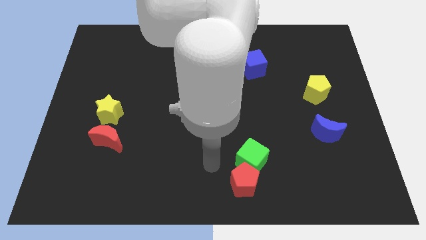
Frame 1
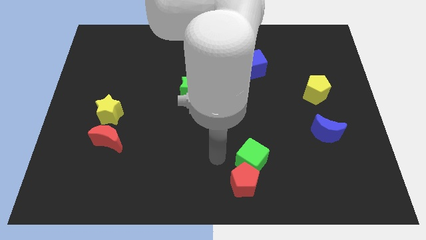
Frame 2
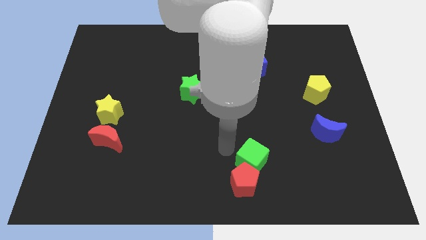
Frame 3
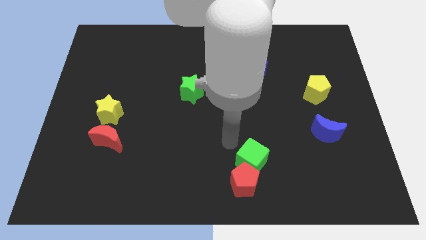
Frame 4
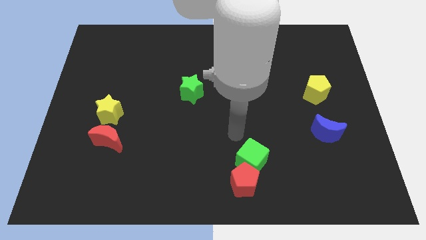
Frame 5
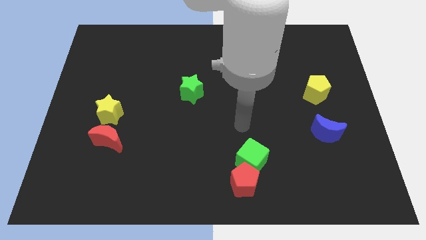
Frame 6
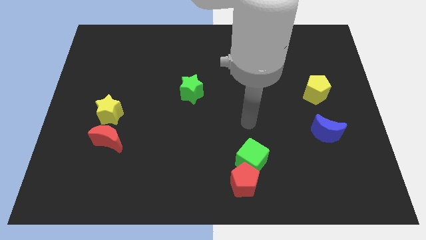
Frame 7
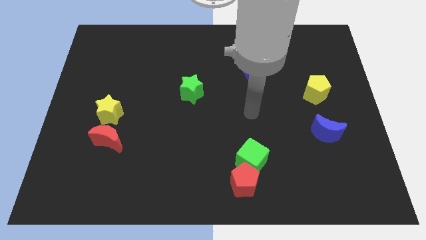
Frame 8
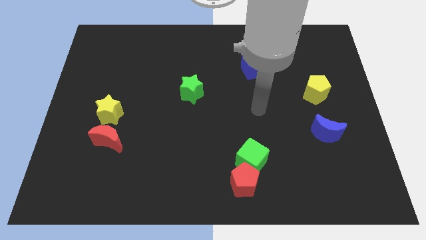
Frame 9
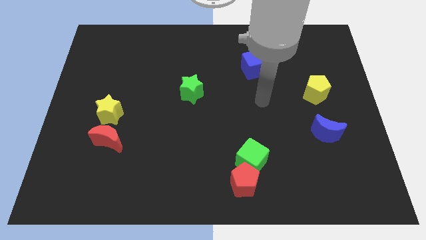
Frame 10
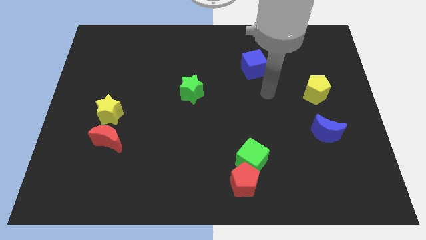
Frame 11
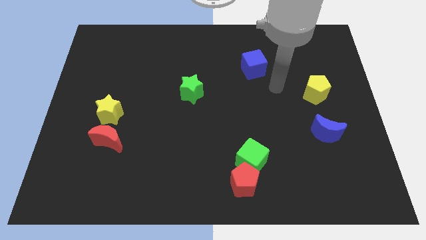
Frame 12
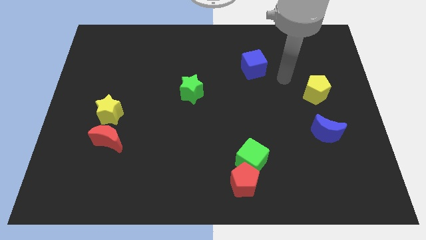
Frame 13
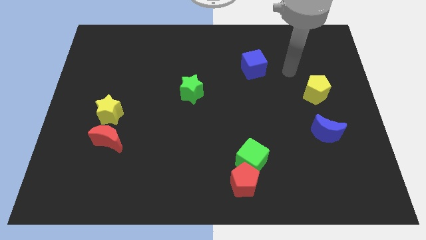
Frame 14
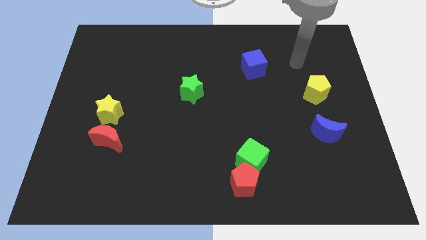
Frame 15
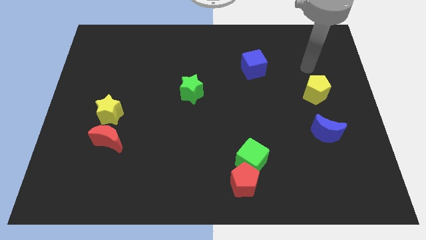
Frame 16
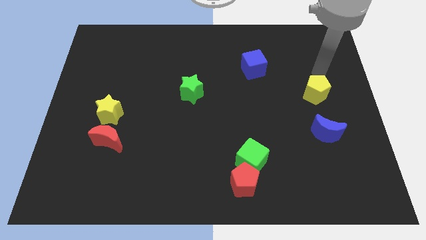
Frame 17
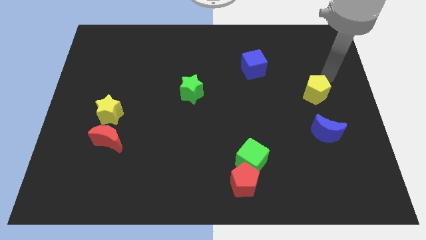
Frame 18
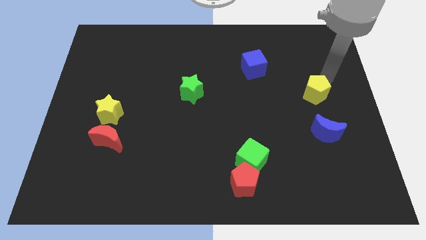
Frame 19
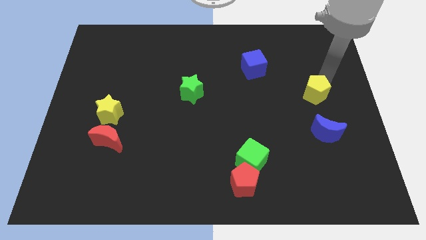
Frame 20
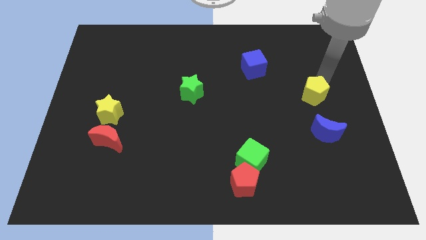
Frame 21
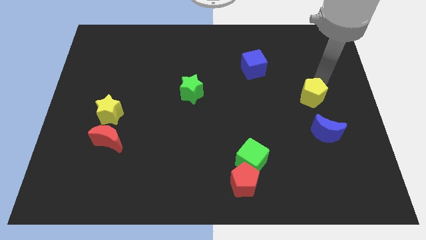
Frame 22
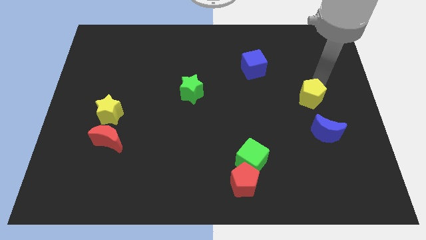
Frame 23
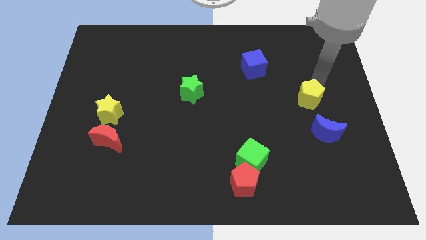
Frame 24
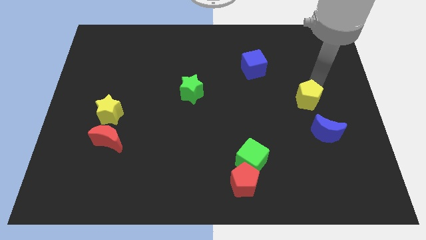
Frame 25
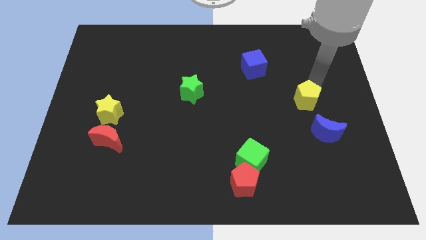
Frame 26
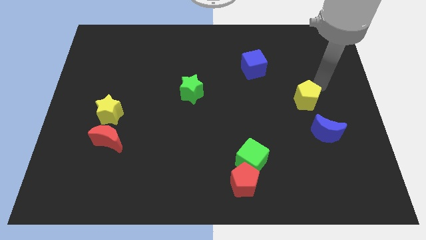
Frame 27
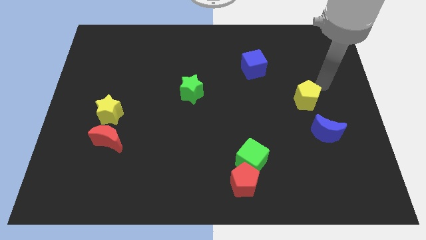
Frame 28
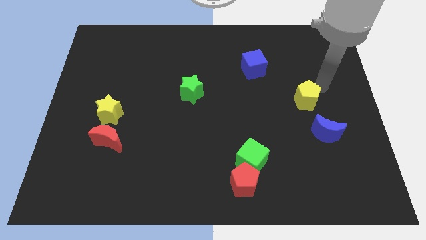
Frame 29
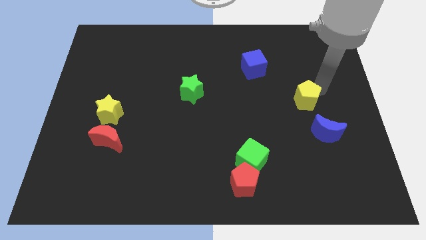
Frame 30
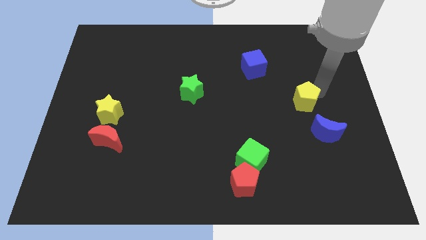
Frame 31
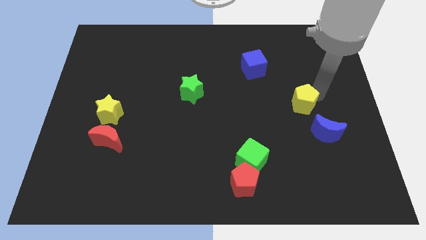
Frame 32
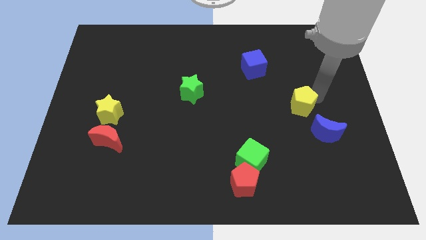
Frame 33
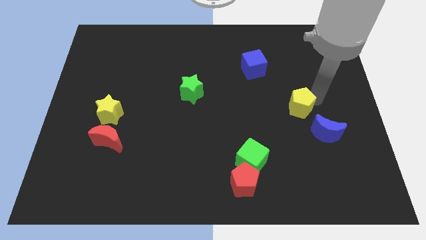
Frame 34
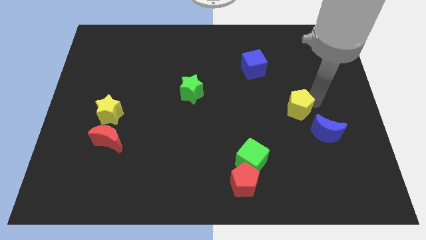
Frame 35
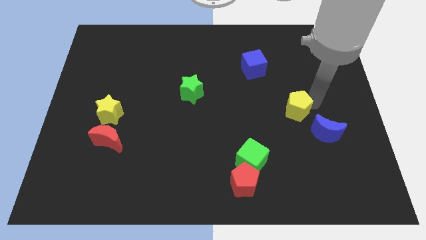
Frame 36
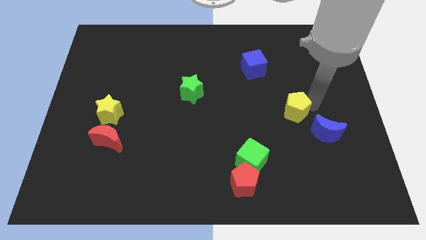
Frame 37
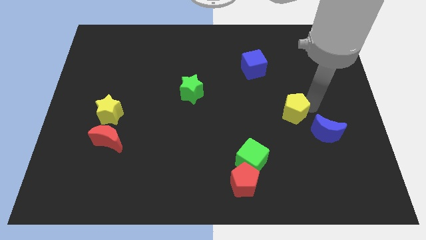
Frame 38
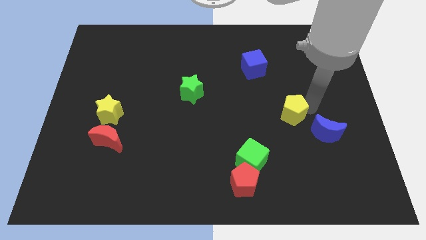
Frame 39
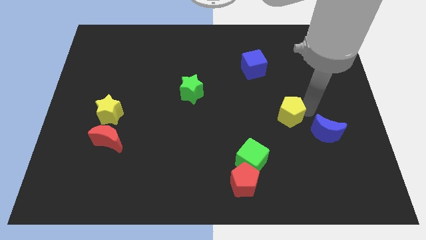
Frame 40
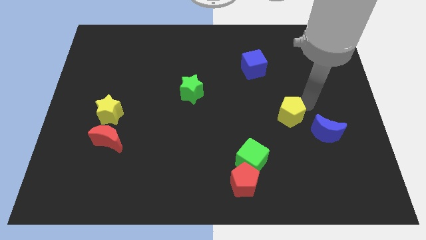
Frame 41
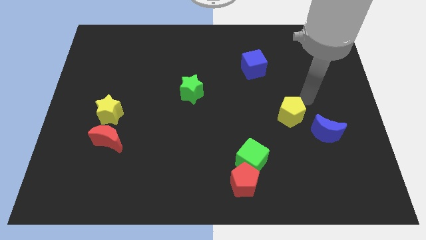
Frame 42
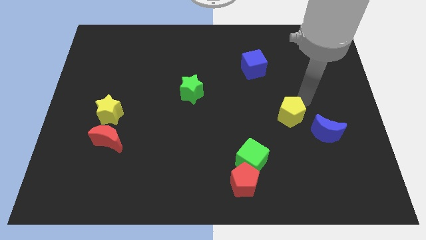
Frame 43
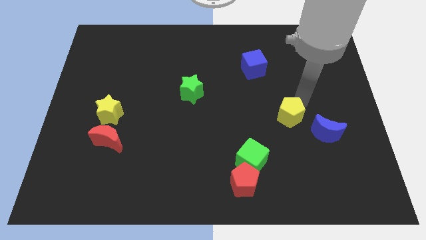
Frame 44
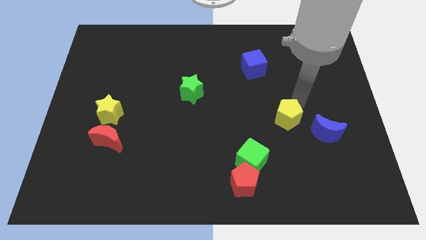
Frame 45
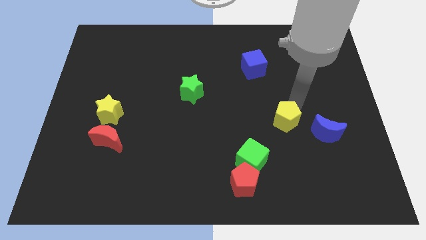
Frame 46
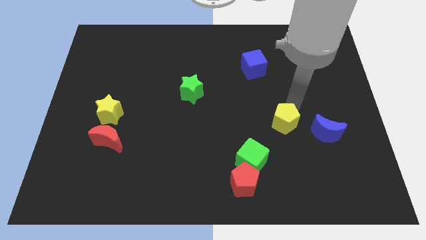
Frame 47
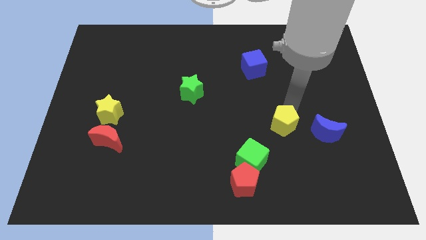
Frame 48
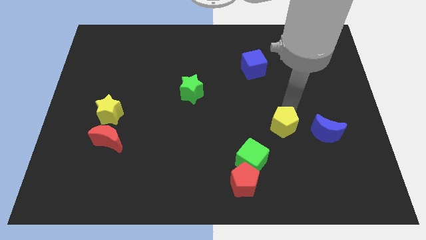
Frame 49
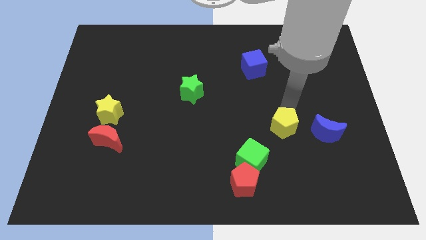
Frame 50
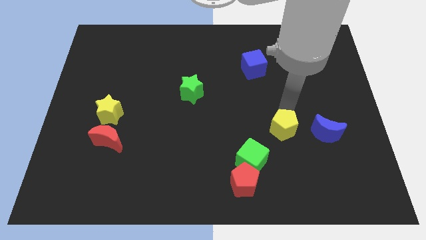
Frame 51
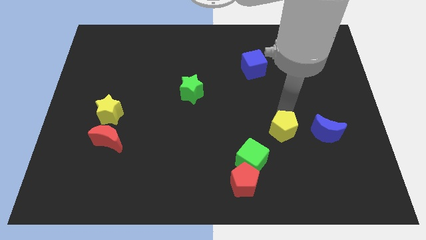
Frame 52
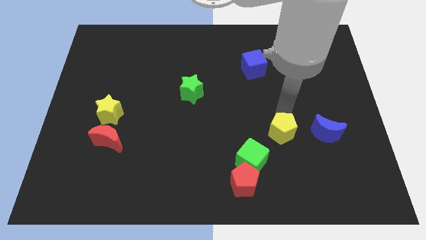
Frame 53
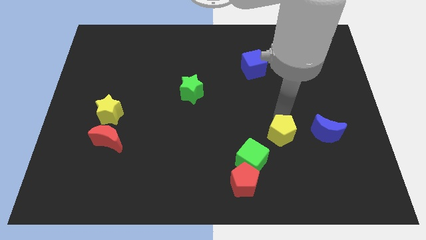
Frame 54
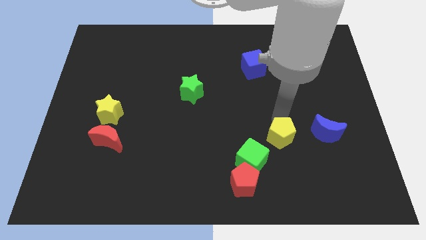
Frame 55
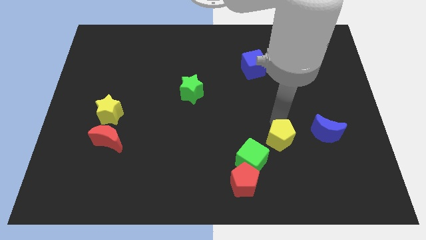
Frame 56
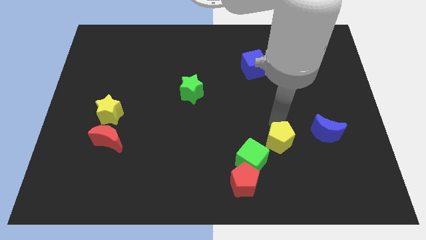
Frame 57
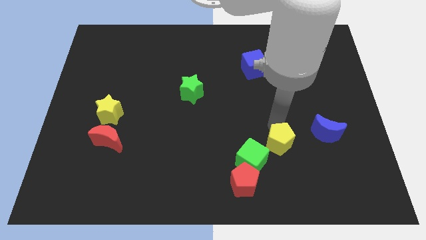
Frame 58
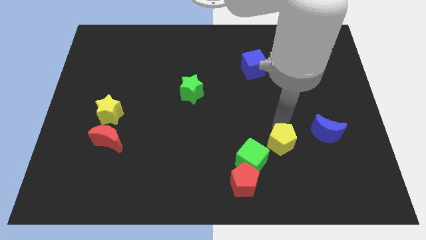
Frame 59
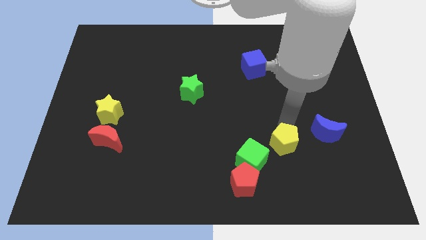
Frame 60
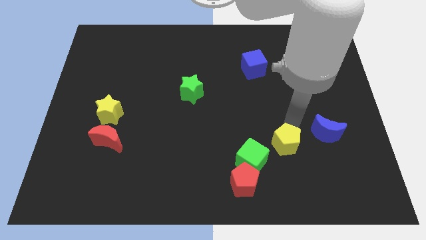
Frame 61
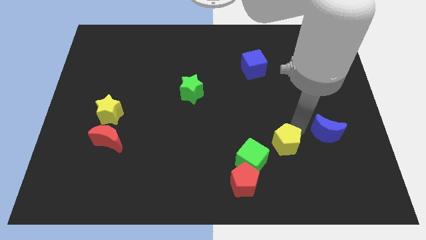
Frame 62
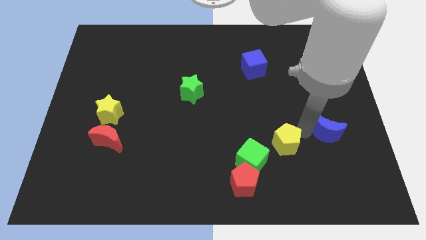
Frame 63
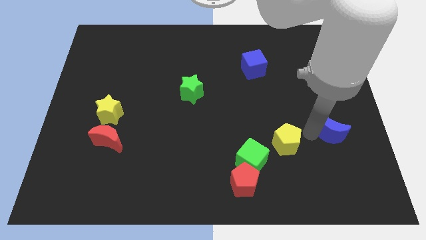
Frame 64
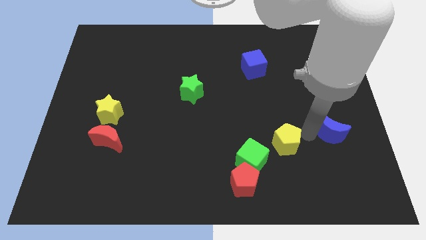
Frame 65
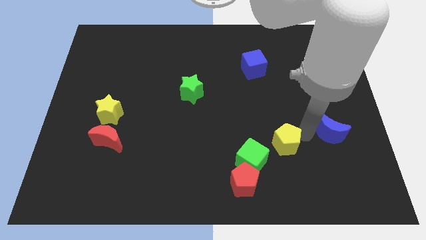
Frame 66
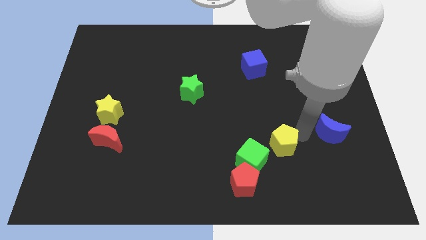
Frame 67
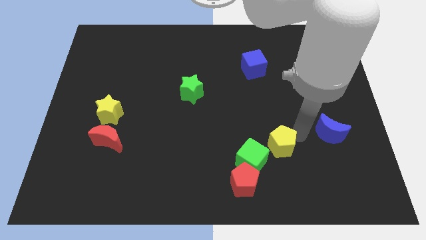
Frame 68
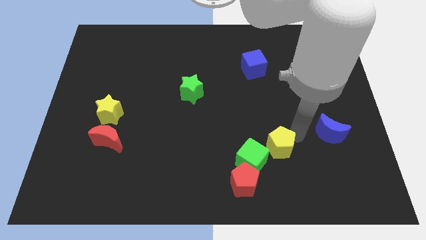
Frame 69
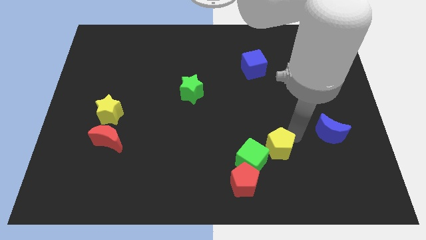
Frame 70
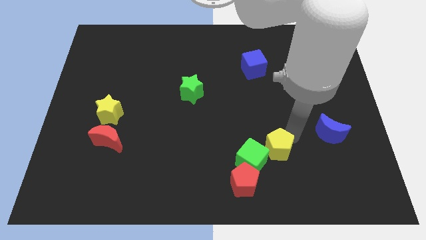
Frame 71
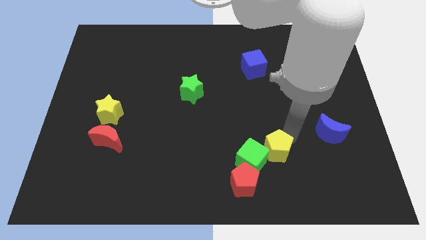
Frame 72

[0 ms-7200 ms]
put the yellow pentagon next to the green cube
